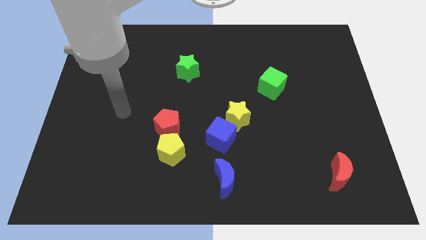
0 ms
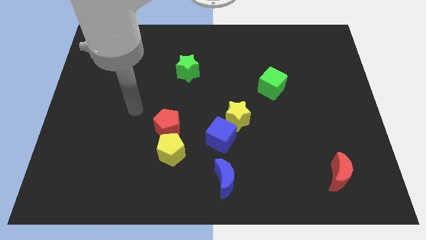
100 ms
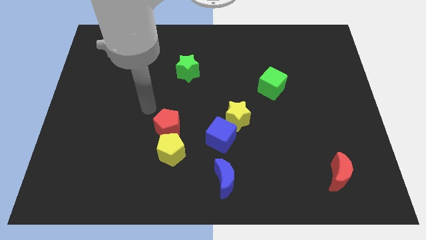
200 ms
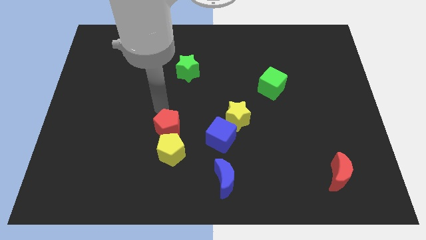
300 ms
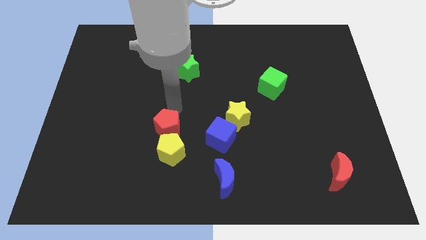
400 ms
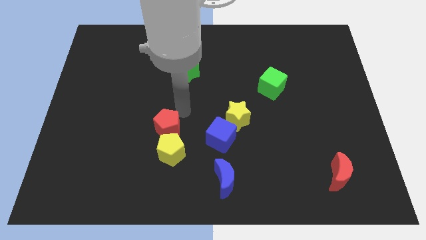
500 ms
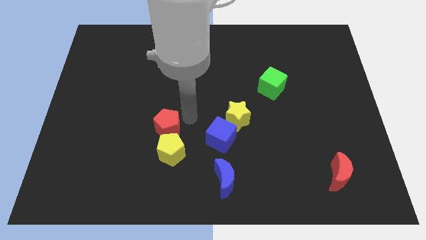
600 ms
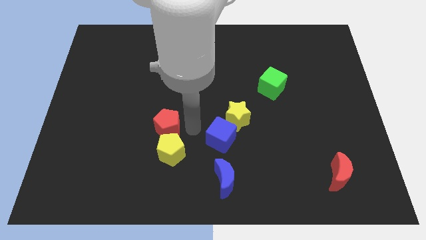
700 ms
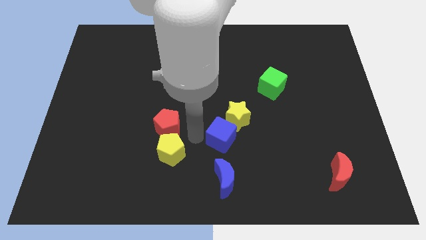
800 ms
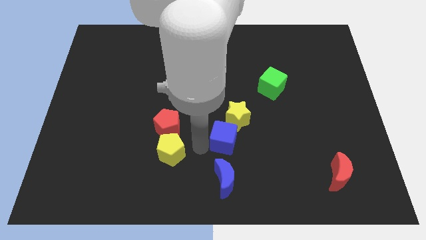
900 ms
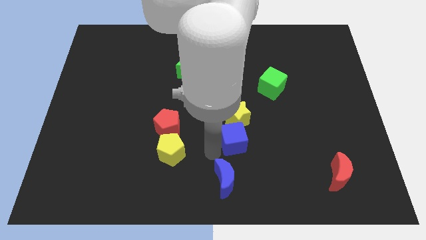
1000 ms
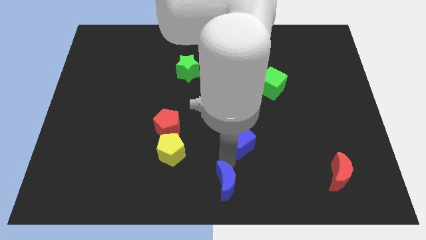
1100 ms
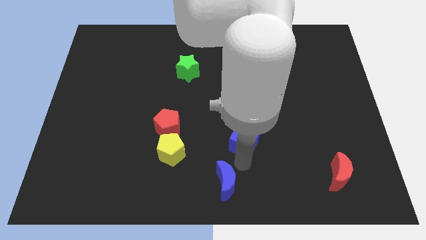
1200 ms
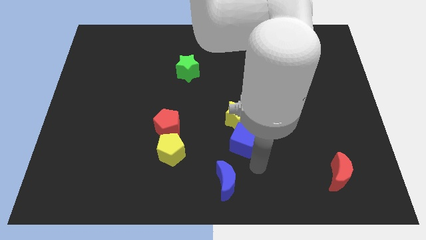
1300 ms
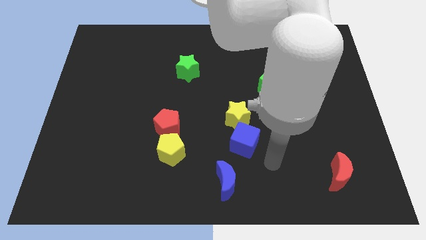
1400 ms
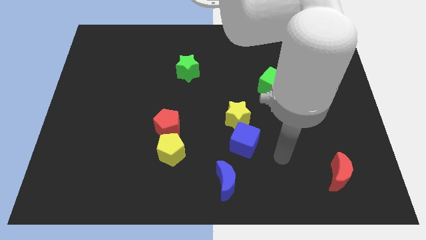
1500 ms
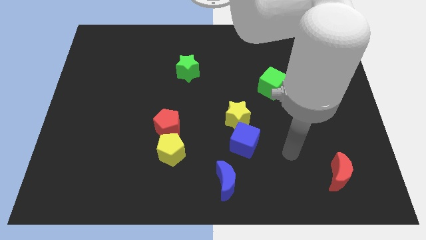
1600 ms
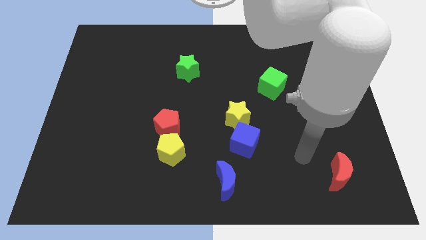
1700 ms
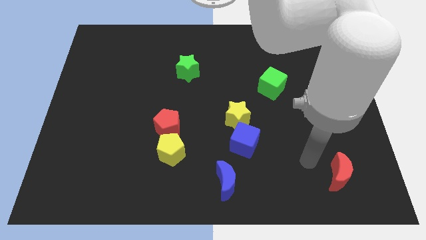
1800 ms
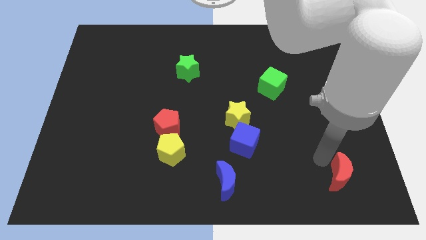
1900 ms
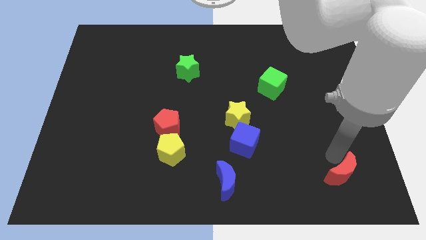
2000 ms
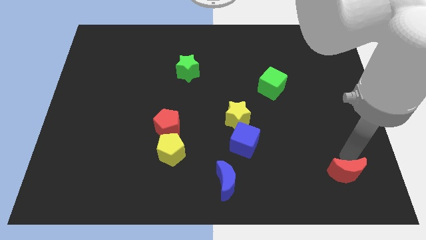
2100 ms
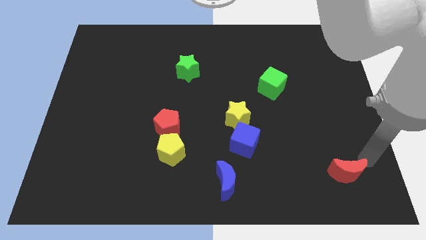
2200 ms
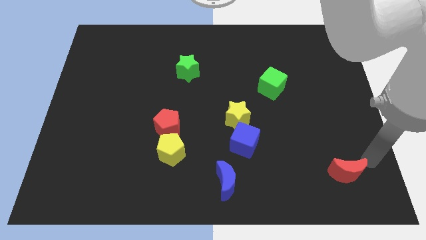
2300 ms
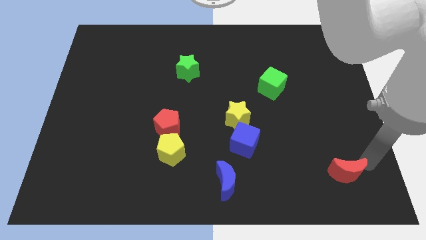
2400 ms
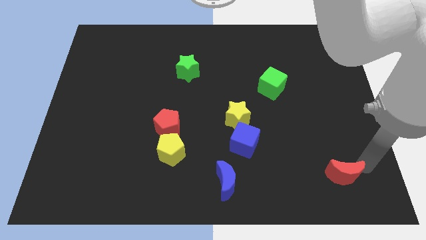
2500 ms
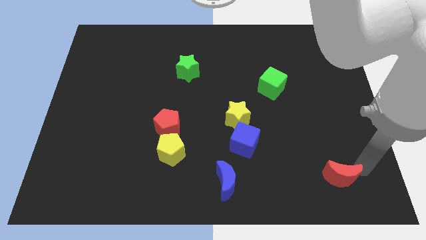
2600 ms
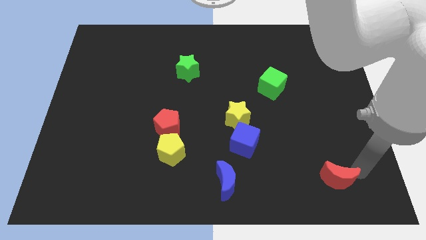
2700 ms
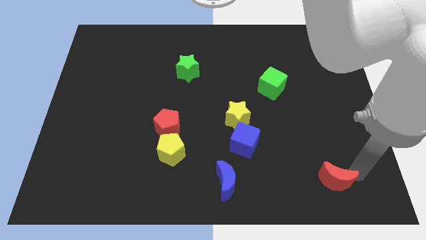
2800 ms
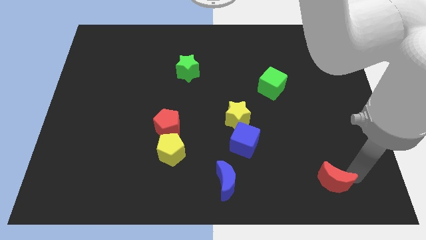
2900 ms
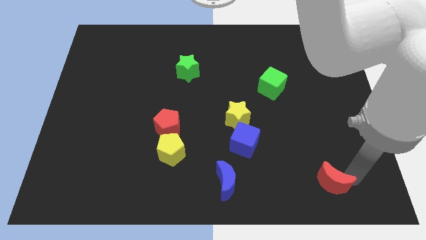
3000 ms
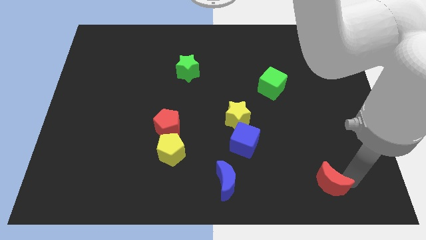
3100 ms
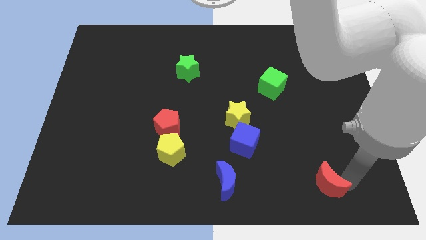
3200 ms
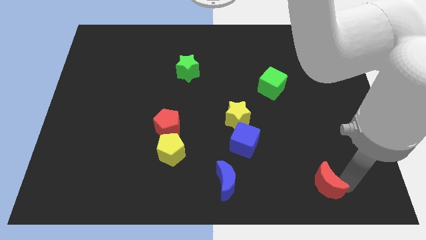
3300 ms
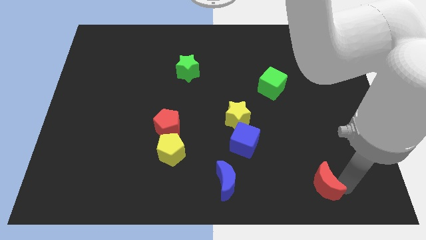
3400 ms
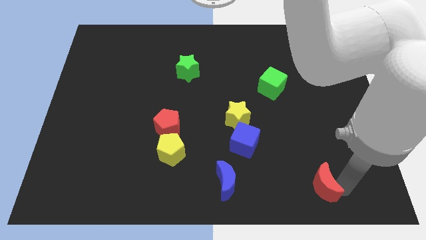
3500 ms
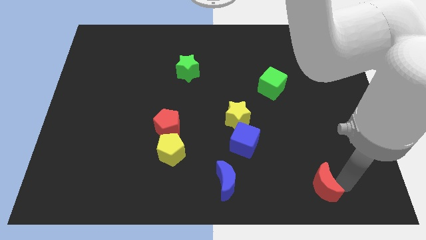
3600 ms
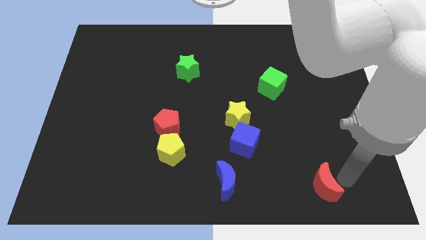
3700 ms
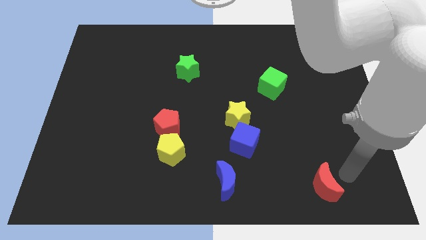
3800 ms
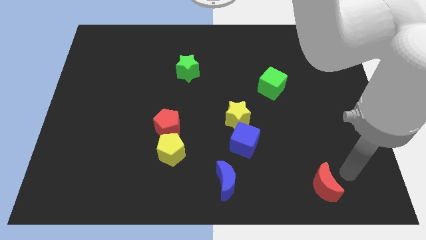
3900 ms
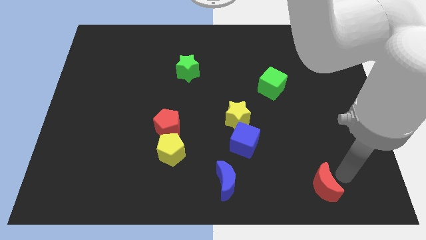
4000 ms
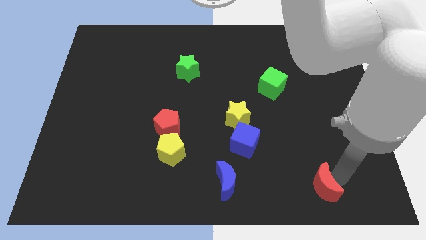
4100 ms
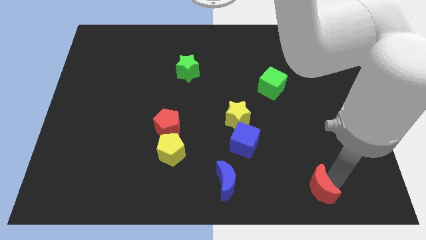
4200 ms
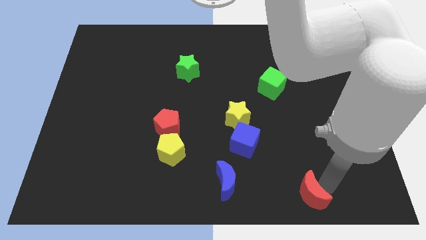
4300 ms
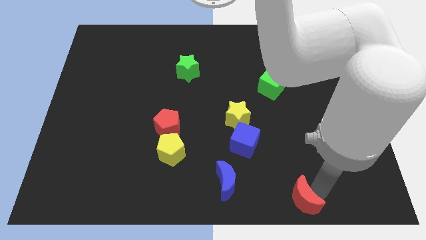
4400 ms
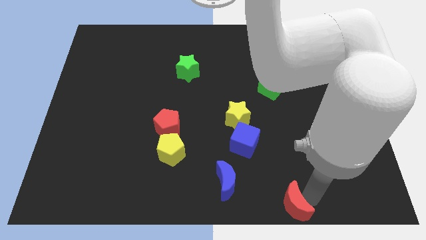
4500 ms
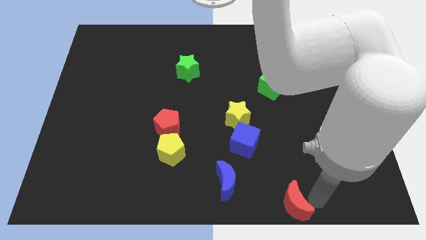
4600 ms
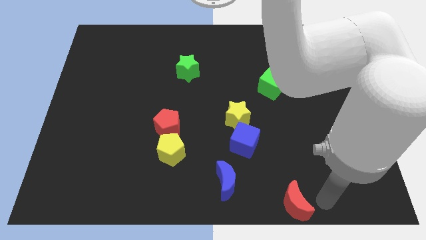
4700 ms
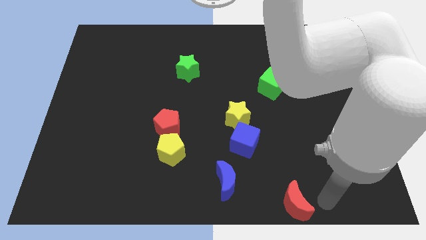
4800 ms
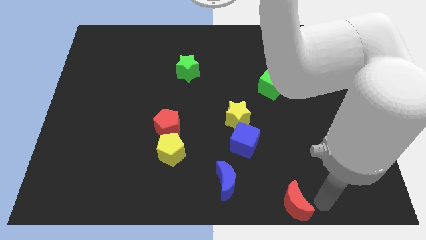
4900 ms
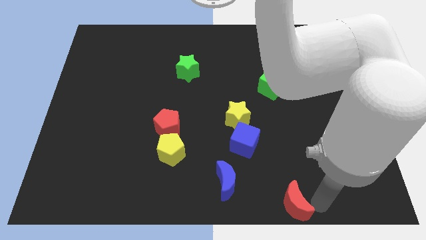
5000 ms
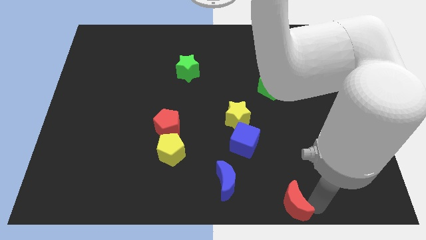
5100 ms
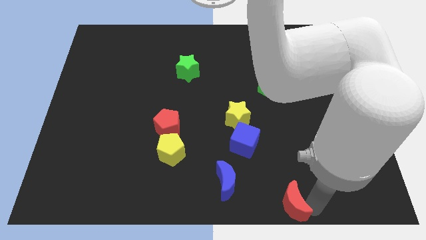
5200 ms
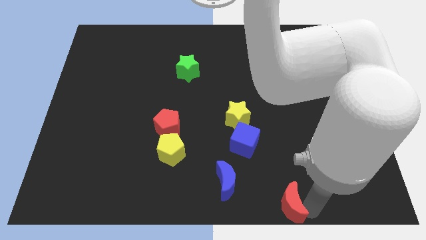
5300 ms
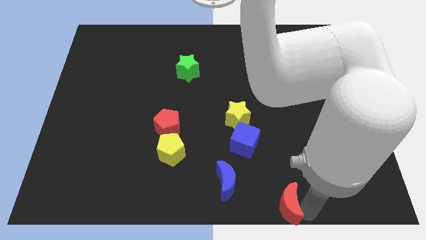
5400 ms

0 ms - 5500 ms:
put the red moon to the bottom

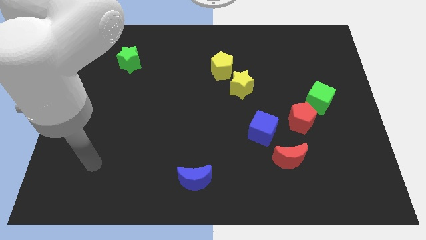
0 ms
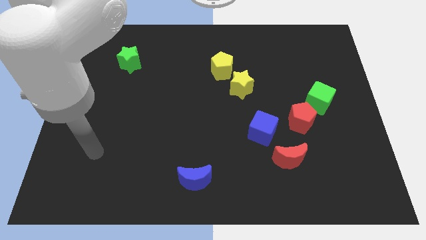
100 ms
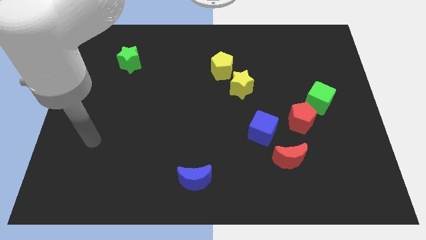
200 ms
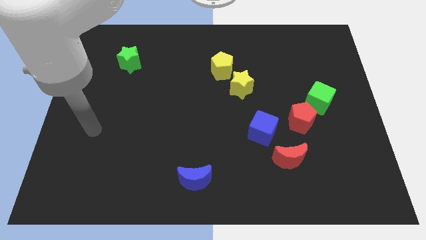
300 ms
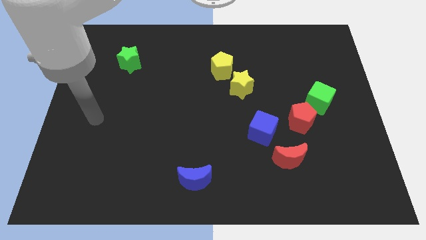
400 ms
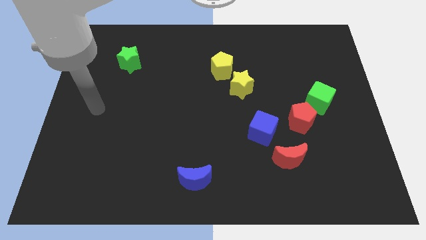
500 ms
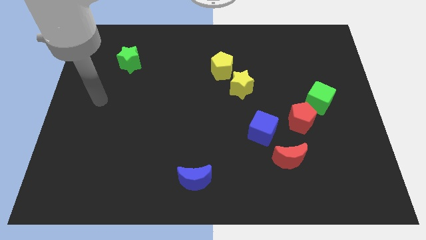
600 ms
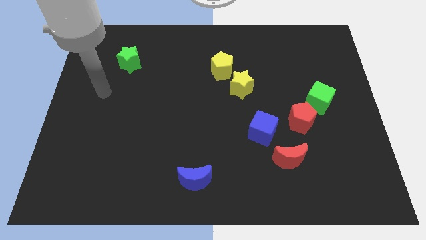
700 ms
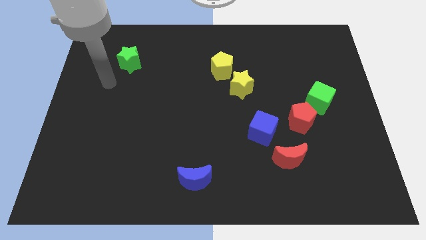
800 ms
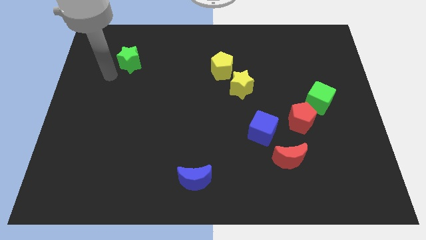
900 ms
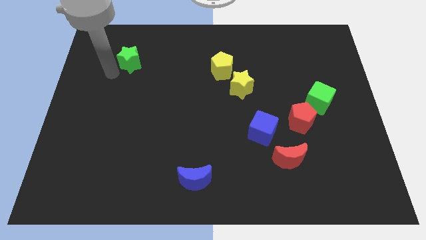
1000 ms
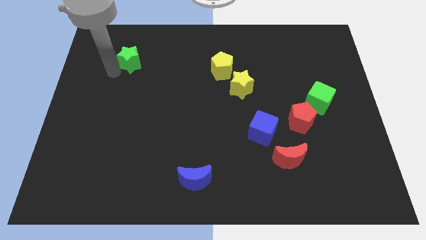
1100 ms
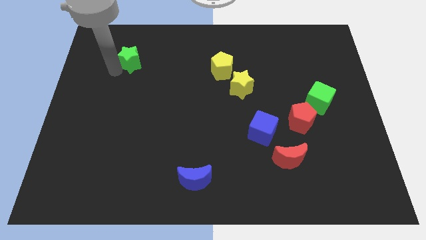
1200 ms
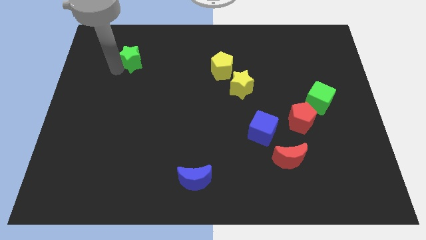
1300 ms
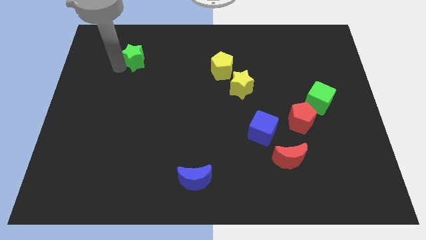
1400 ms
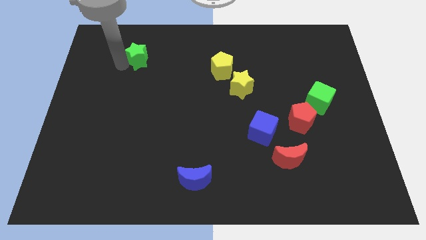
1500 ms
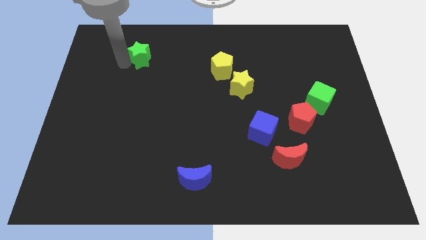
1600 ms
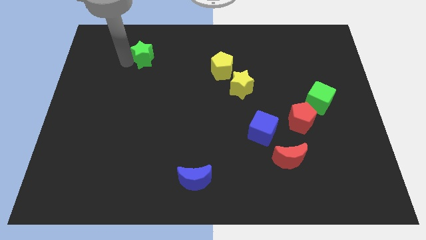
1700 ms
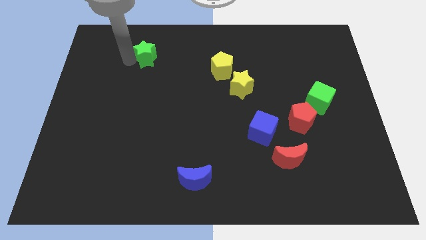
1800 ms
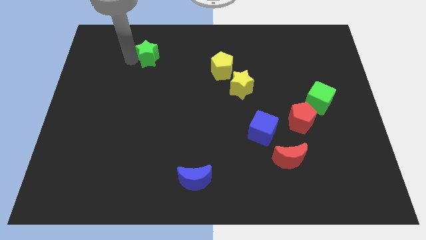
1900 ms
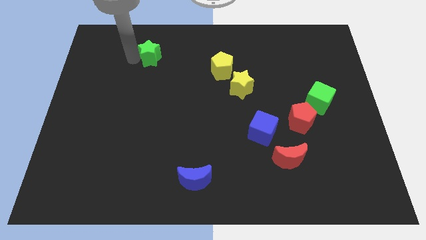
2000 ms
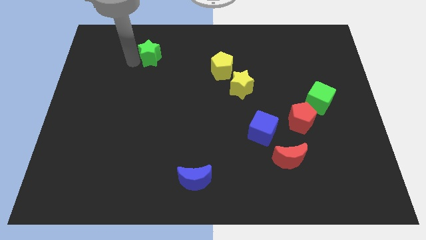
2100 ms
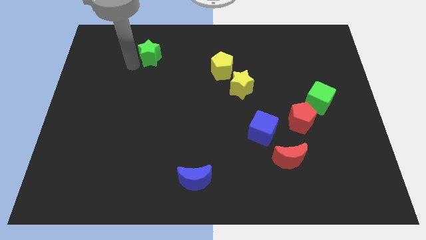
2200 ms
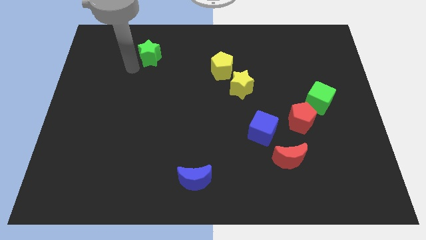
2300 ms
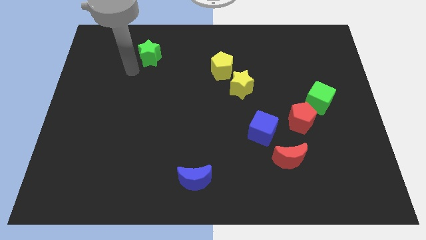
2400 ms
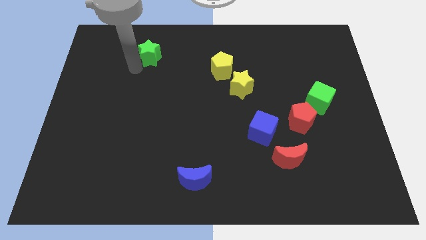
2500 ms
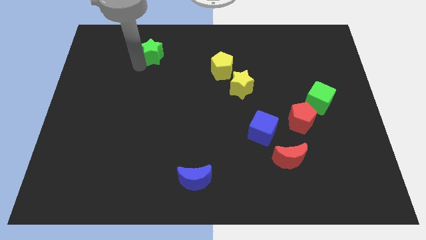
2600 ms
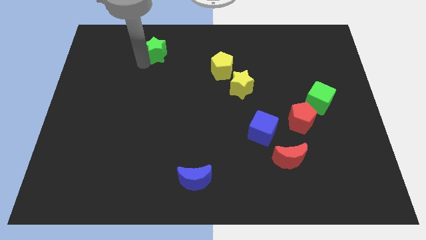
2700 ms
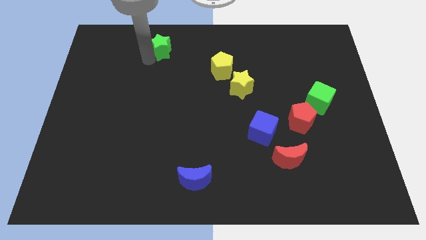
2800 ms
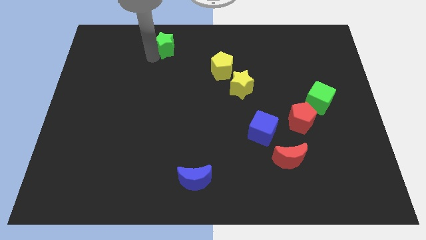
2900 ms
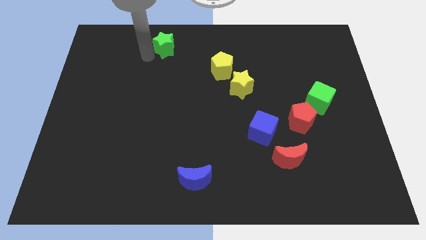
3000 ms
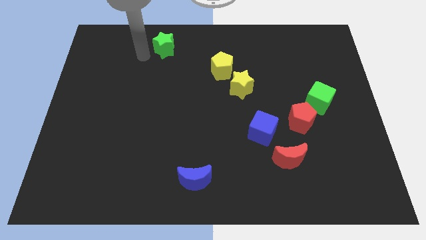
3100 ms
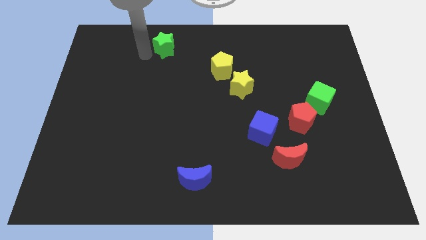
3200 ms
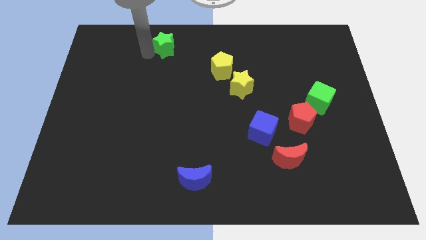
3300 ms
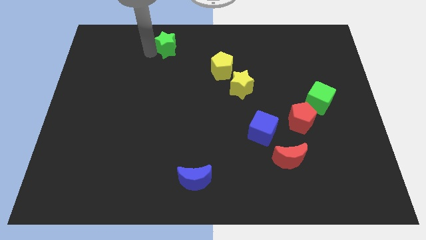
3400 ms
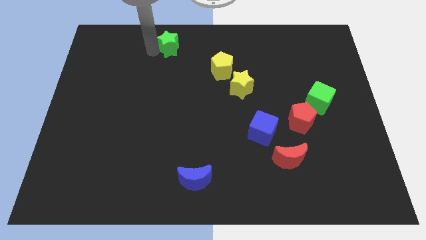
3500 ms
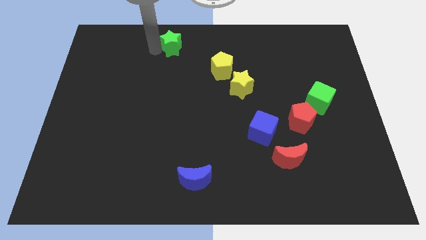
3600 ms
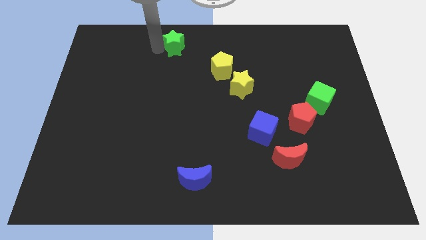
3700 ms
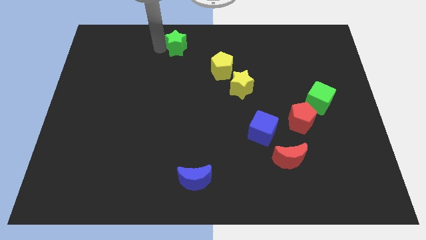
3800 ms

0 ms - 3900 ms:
move the green star to the towards your base
